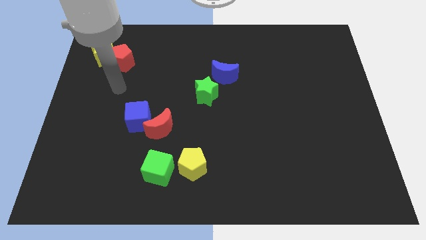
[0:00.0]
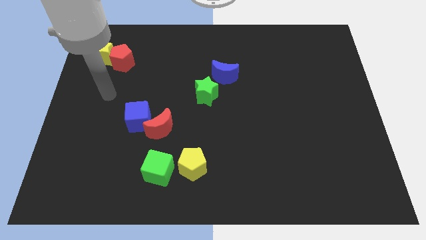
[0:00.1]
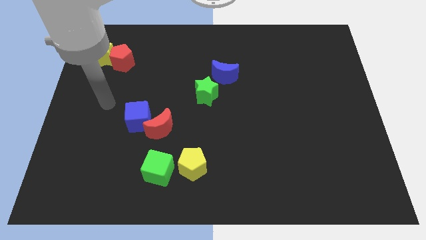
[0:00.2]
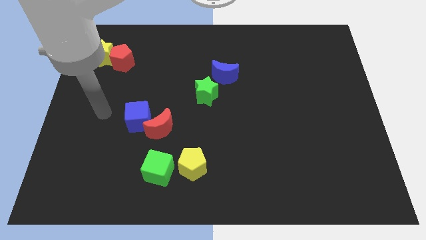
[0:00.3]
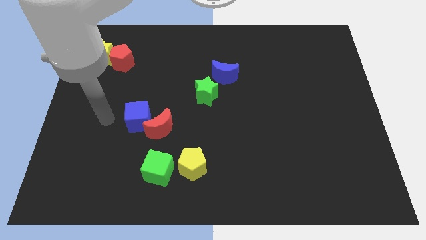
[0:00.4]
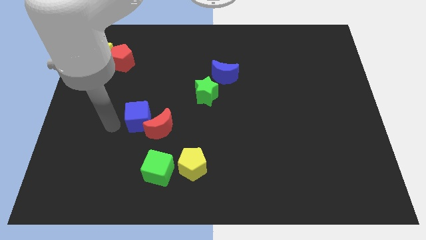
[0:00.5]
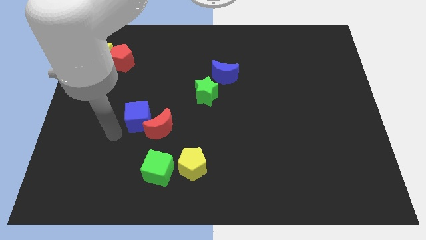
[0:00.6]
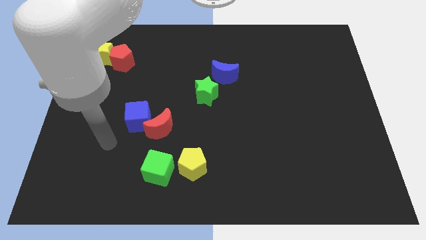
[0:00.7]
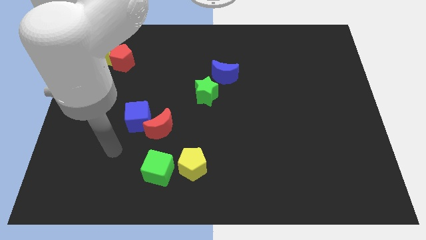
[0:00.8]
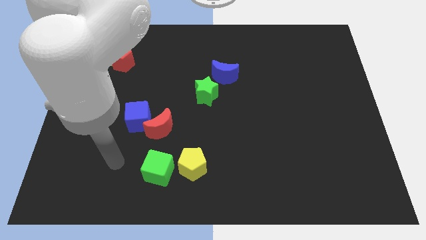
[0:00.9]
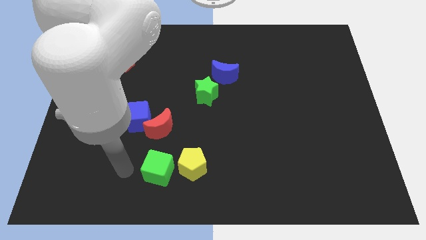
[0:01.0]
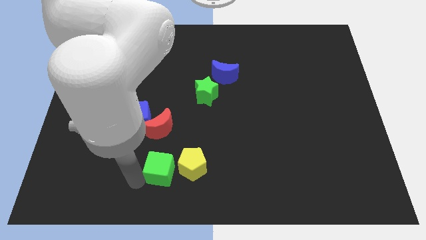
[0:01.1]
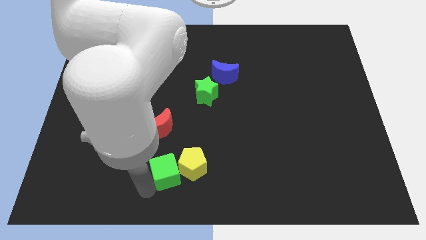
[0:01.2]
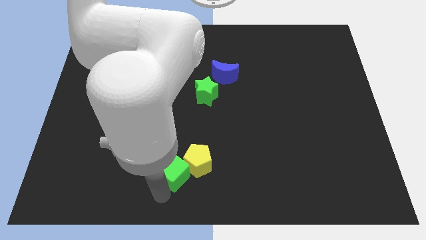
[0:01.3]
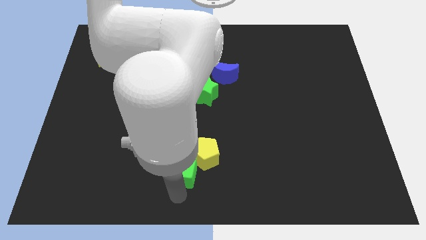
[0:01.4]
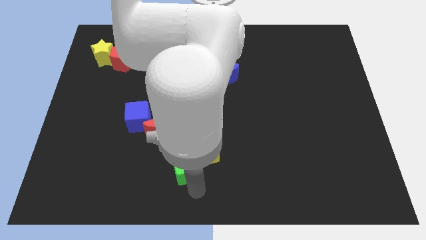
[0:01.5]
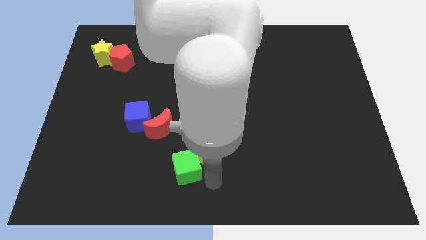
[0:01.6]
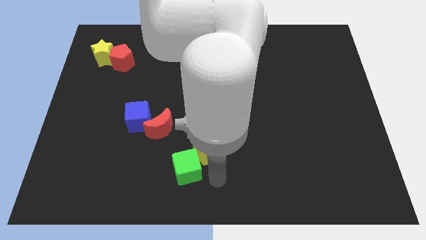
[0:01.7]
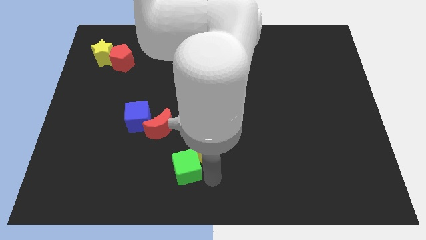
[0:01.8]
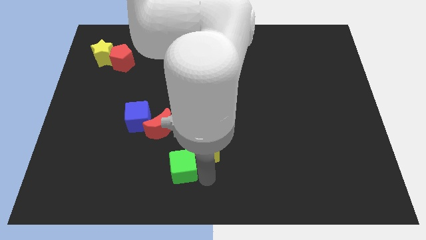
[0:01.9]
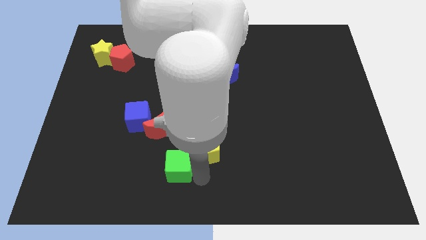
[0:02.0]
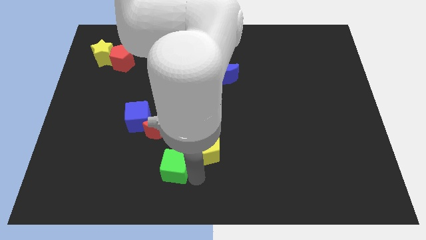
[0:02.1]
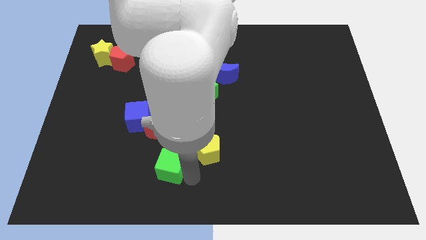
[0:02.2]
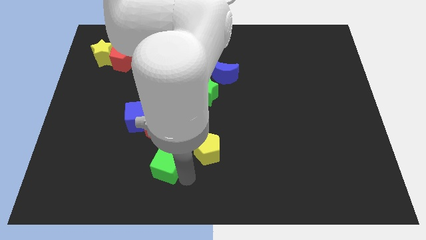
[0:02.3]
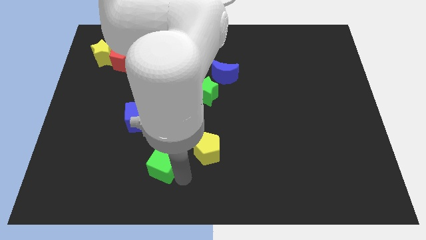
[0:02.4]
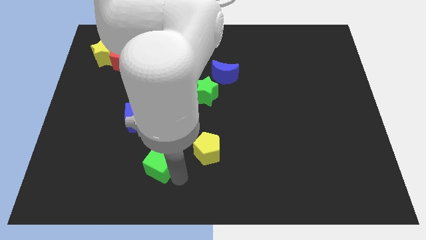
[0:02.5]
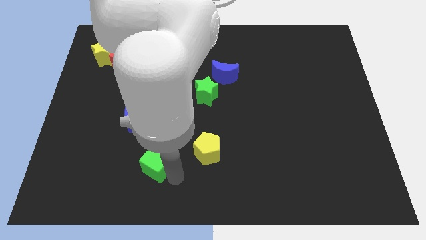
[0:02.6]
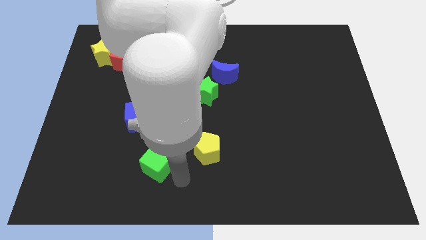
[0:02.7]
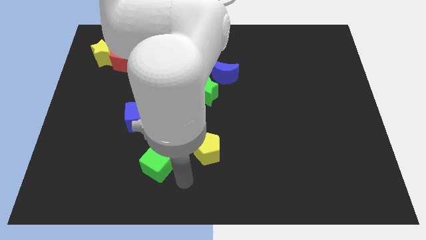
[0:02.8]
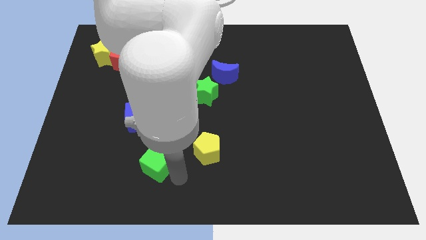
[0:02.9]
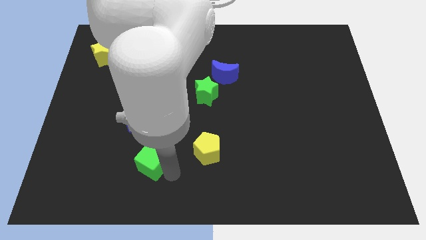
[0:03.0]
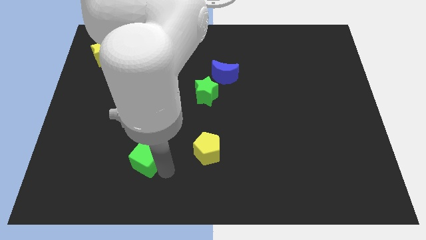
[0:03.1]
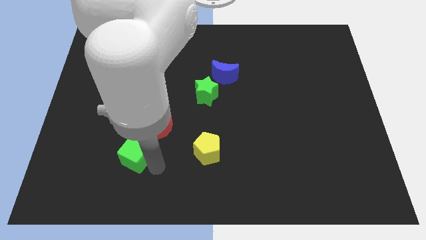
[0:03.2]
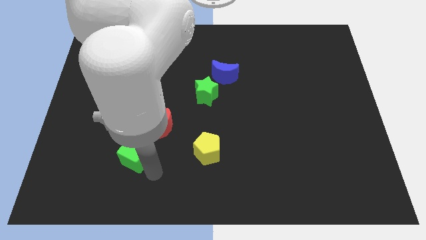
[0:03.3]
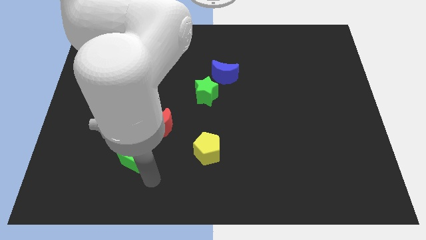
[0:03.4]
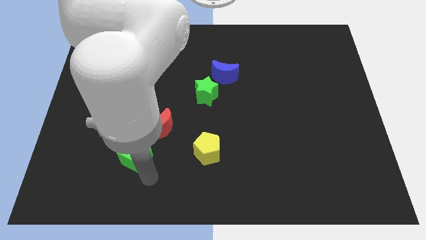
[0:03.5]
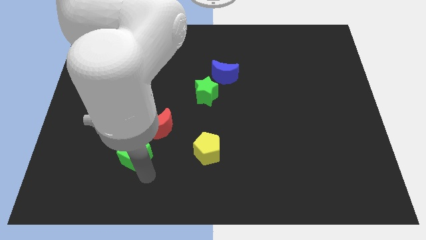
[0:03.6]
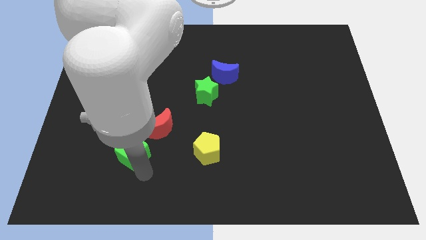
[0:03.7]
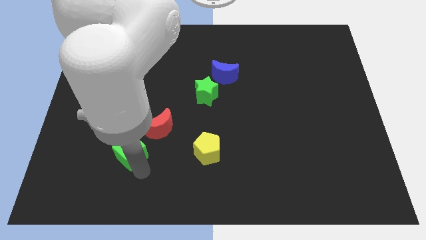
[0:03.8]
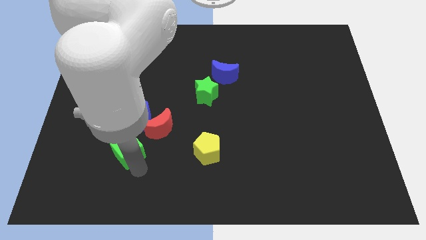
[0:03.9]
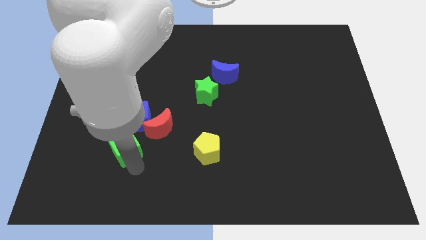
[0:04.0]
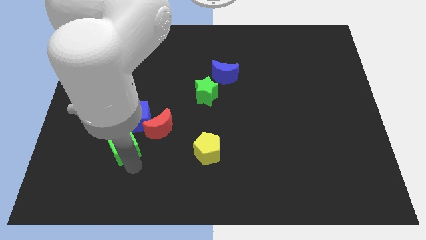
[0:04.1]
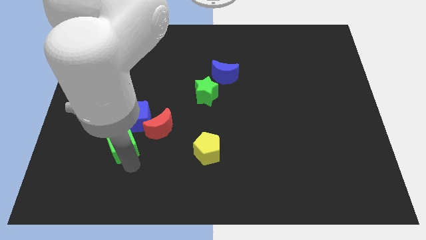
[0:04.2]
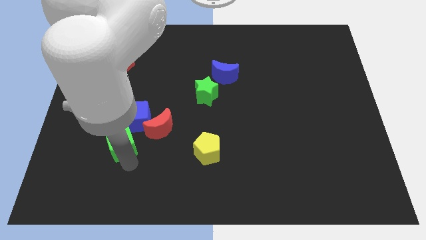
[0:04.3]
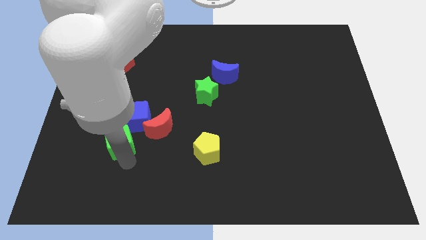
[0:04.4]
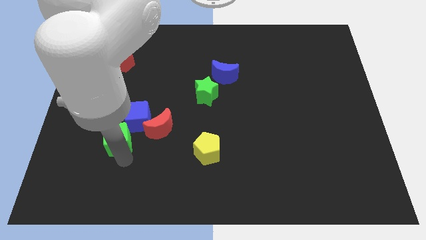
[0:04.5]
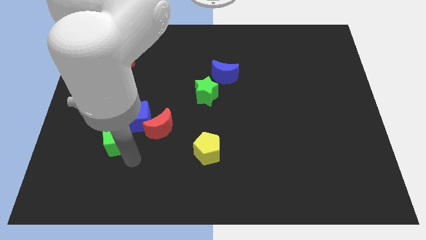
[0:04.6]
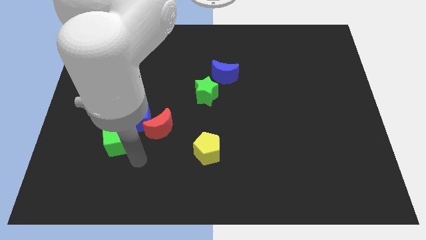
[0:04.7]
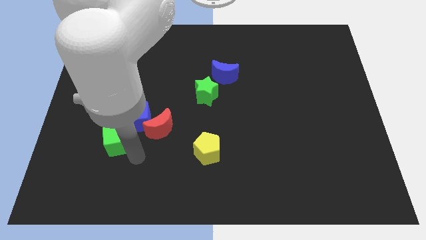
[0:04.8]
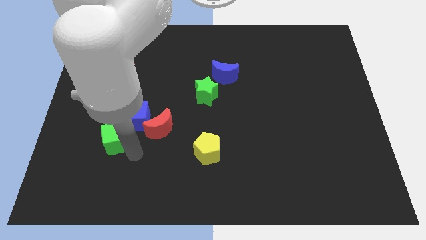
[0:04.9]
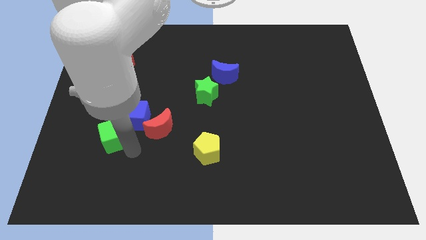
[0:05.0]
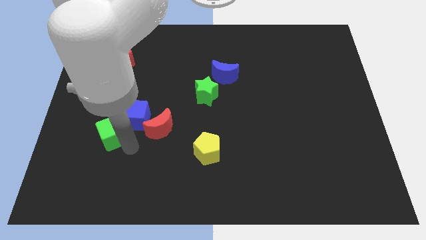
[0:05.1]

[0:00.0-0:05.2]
slide the green cube to the left of the blue cube

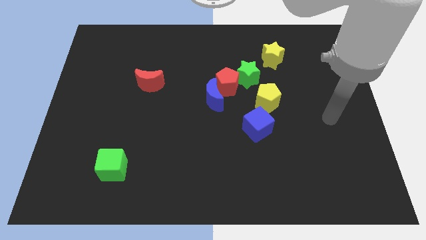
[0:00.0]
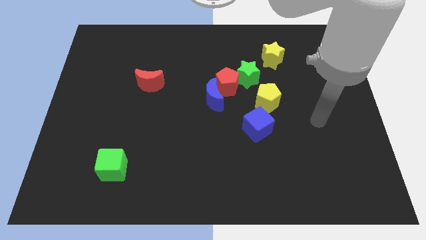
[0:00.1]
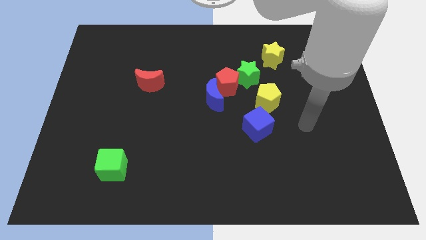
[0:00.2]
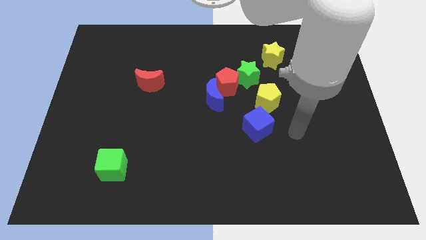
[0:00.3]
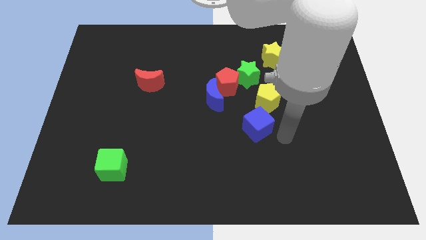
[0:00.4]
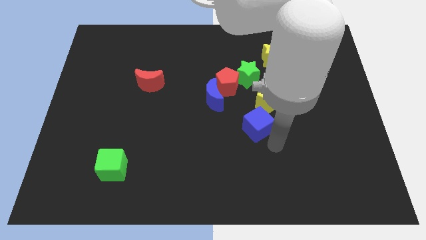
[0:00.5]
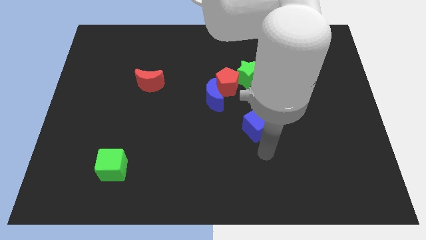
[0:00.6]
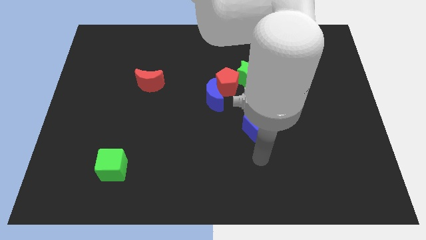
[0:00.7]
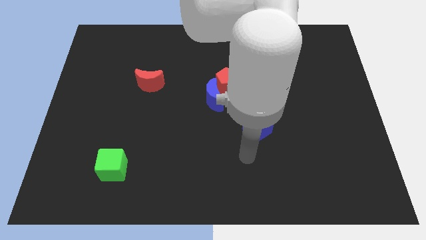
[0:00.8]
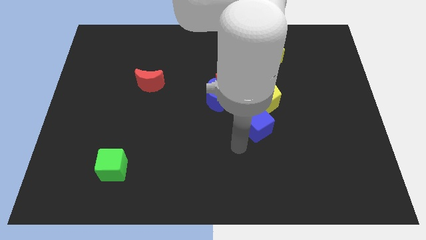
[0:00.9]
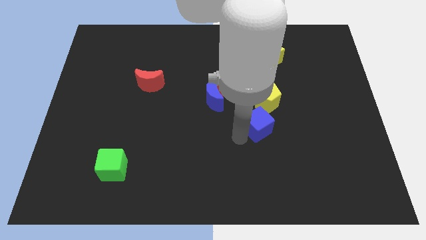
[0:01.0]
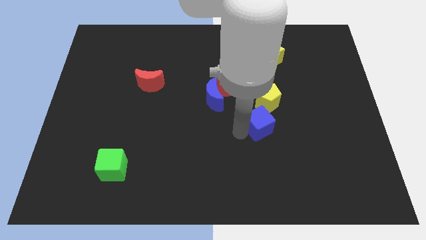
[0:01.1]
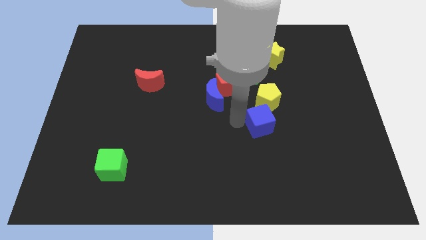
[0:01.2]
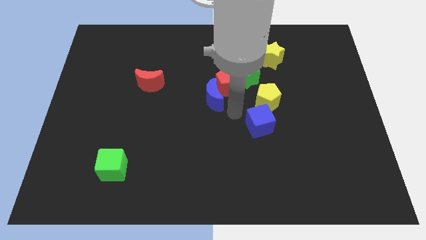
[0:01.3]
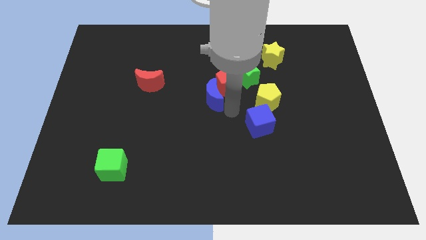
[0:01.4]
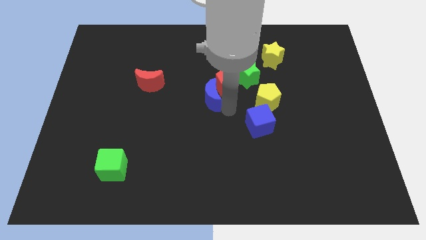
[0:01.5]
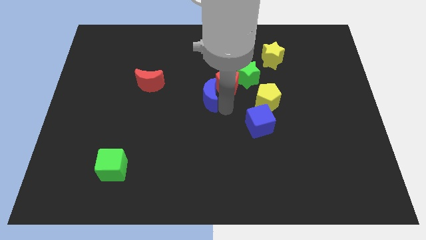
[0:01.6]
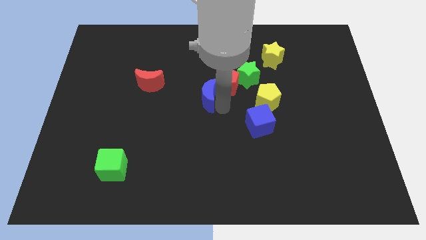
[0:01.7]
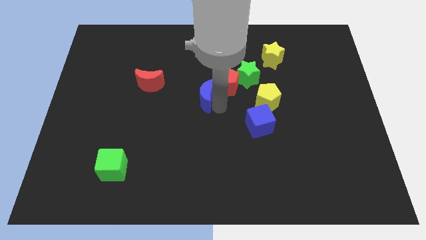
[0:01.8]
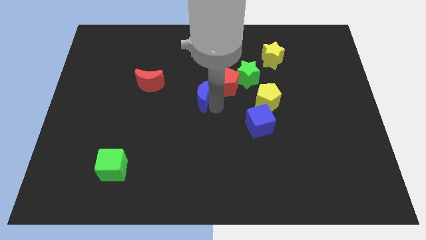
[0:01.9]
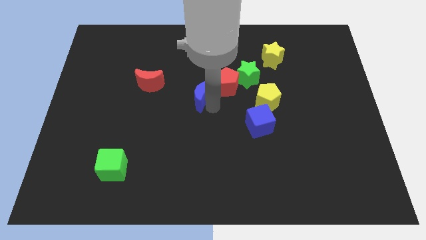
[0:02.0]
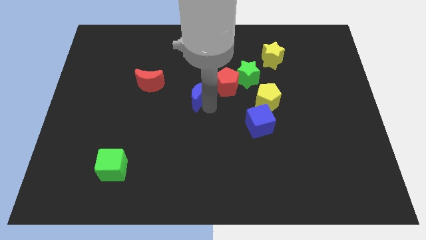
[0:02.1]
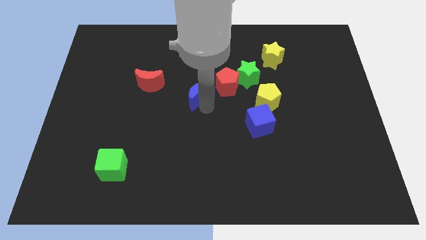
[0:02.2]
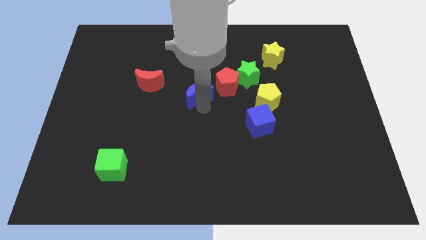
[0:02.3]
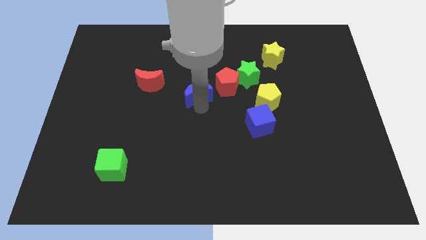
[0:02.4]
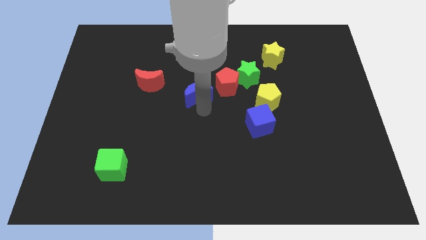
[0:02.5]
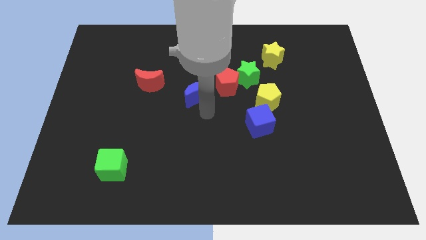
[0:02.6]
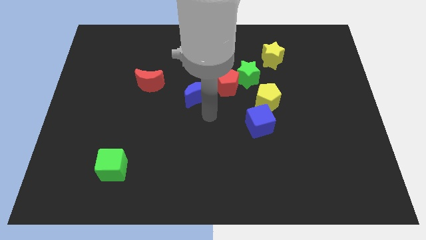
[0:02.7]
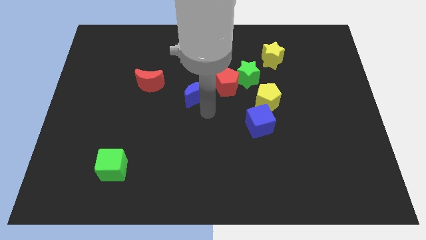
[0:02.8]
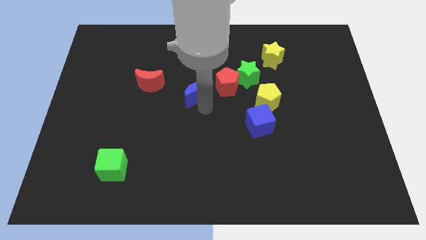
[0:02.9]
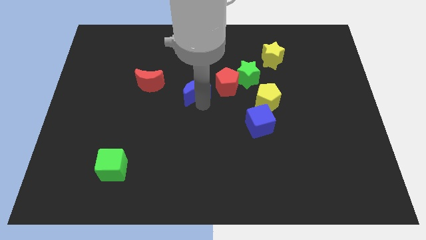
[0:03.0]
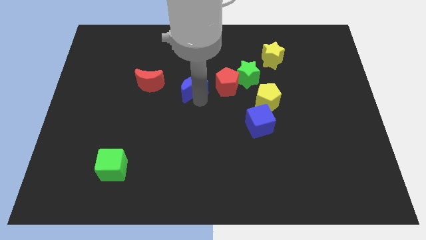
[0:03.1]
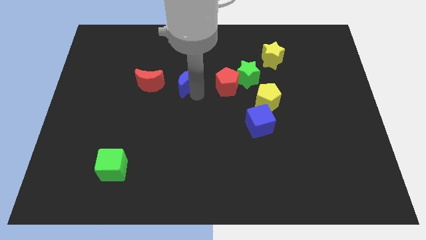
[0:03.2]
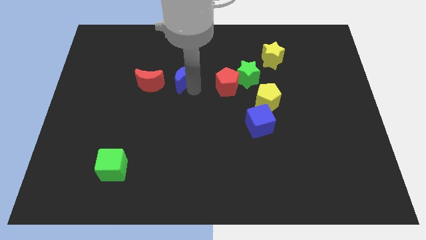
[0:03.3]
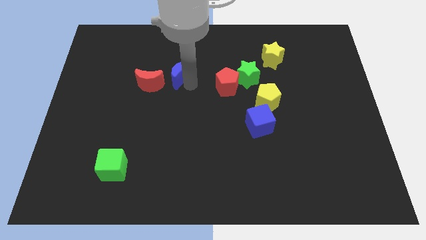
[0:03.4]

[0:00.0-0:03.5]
slide the blue moon diagonally up and to the right of the red moon
